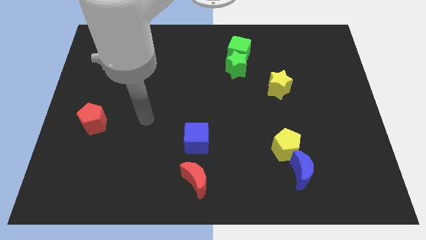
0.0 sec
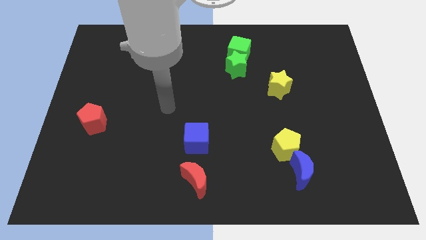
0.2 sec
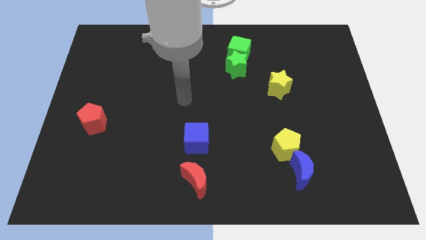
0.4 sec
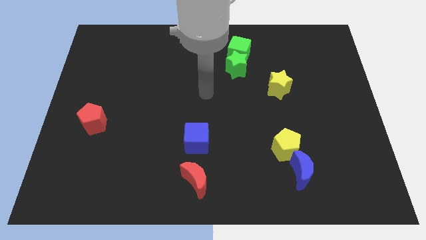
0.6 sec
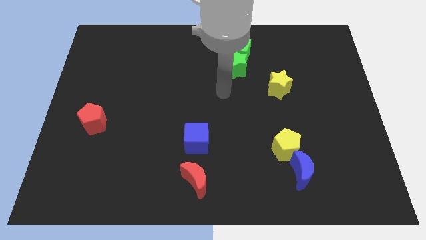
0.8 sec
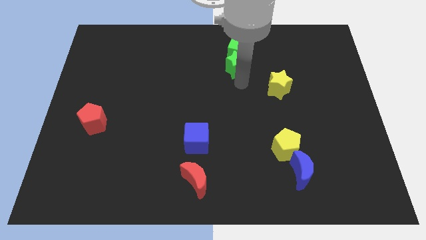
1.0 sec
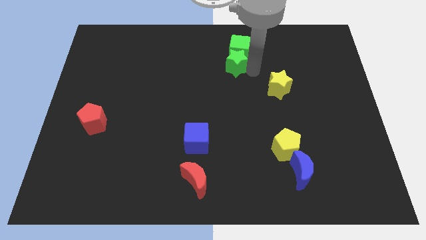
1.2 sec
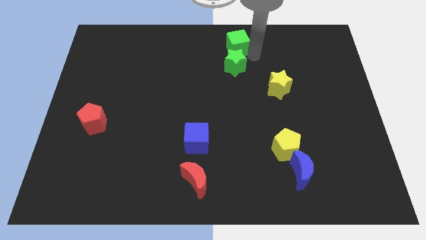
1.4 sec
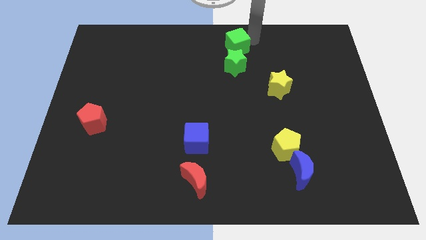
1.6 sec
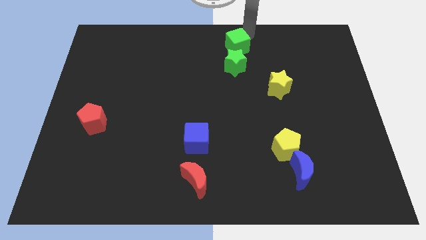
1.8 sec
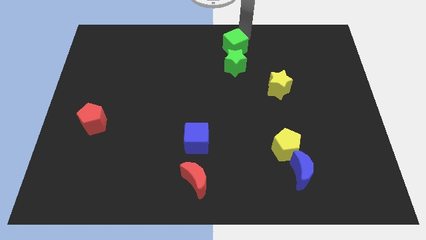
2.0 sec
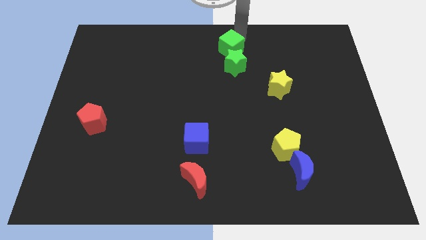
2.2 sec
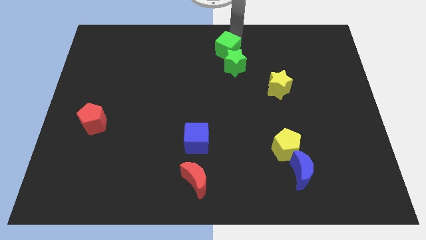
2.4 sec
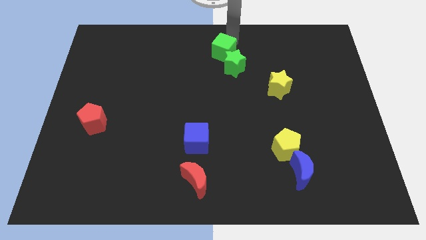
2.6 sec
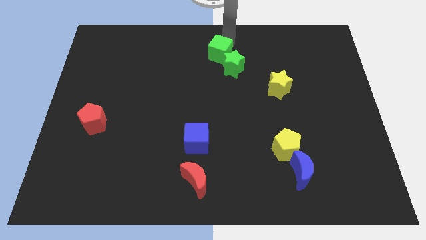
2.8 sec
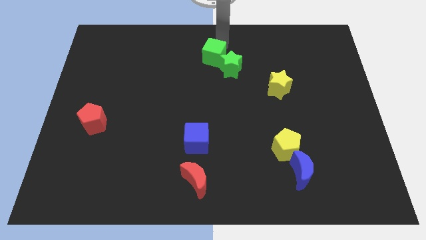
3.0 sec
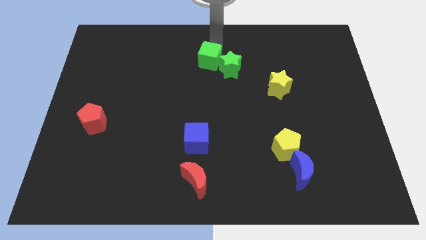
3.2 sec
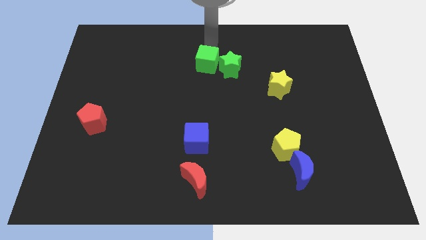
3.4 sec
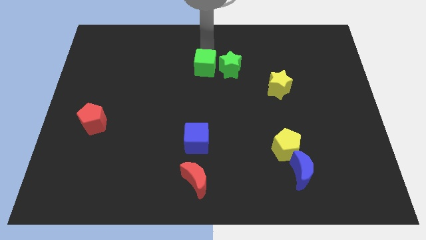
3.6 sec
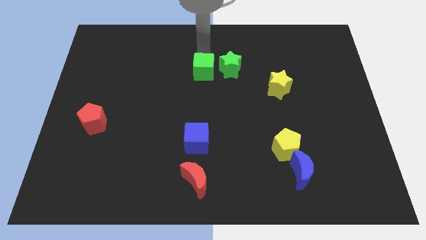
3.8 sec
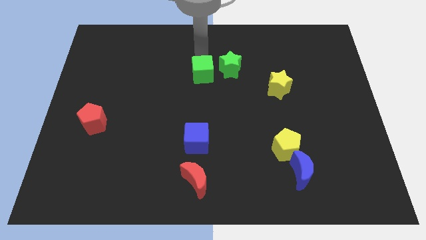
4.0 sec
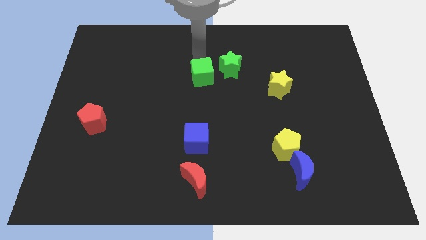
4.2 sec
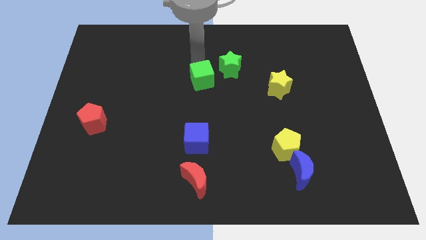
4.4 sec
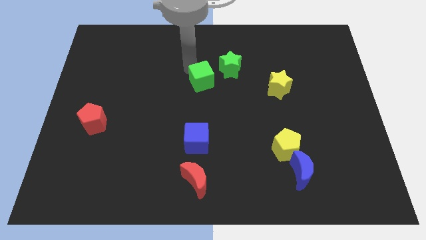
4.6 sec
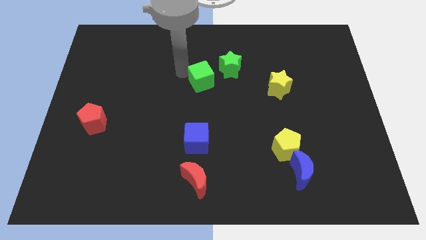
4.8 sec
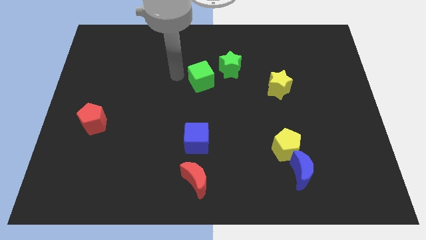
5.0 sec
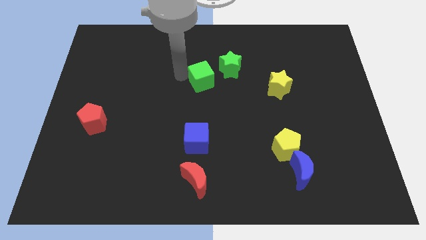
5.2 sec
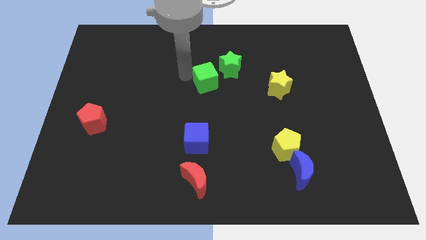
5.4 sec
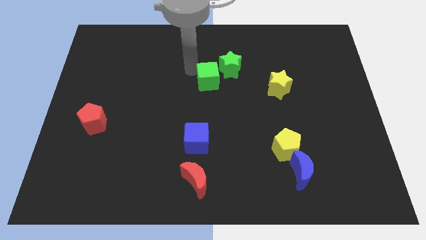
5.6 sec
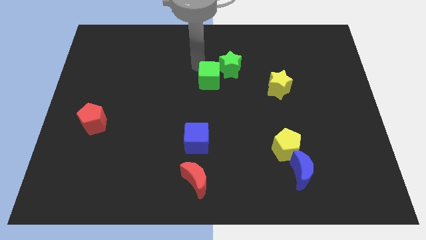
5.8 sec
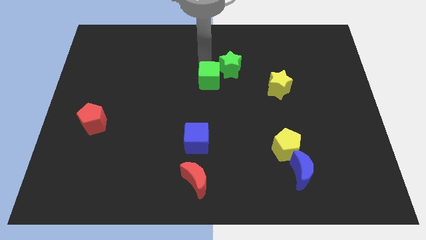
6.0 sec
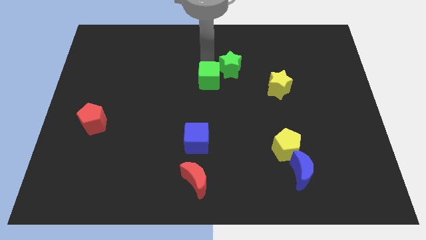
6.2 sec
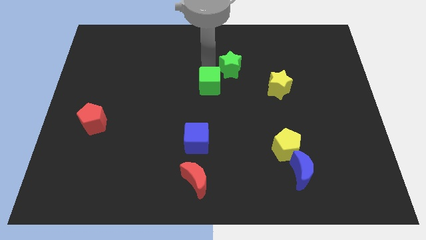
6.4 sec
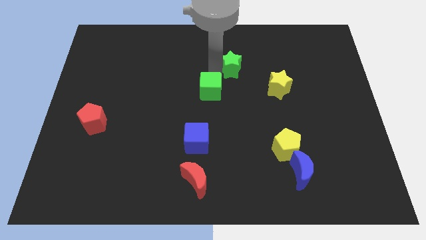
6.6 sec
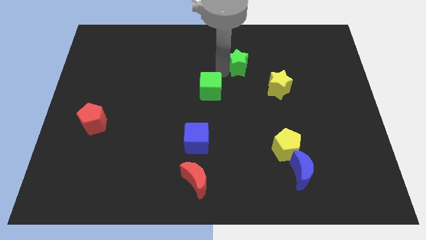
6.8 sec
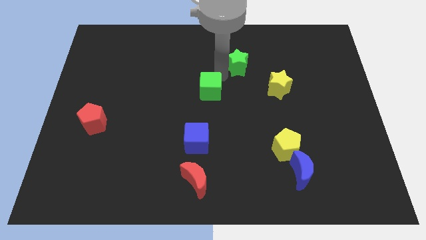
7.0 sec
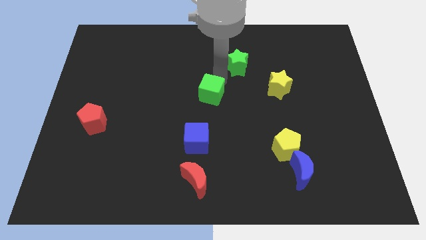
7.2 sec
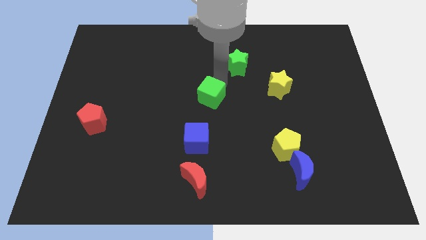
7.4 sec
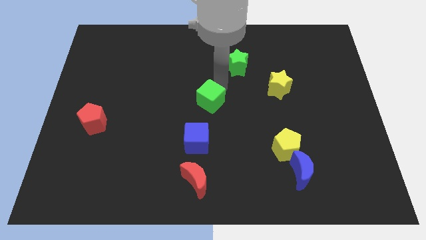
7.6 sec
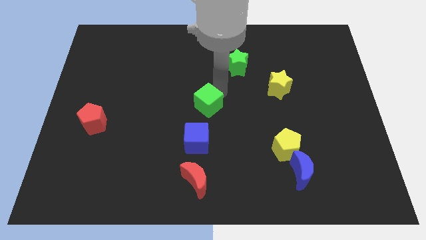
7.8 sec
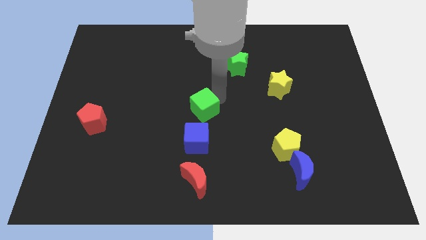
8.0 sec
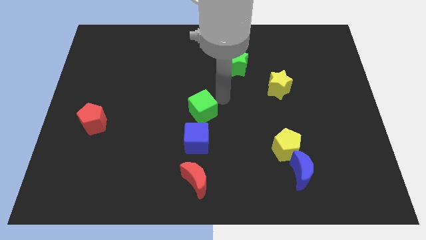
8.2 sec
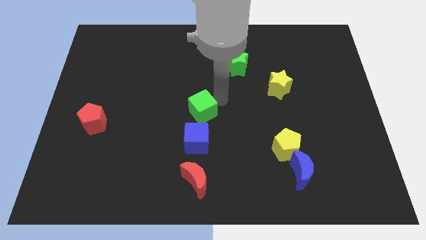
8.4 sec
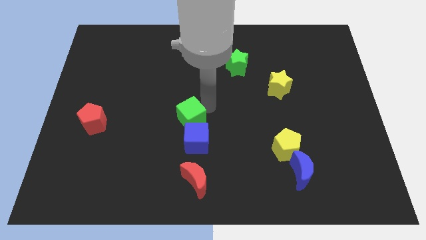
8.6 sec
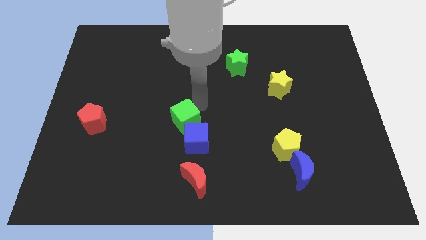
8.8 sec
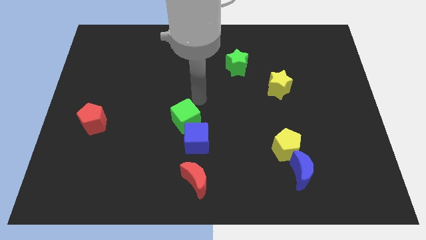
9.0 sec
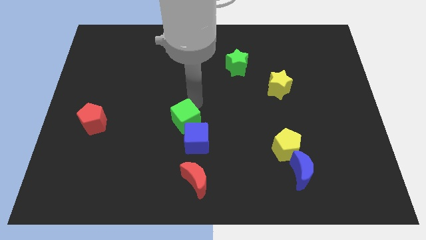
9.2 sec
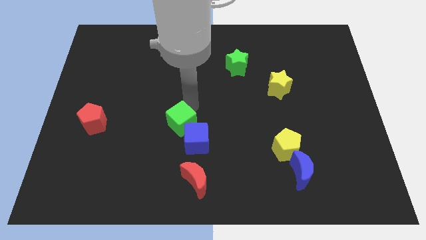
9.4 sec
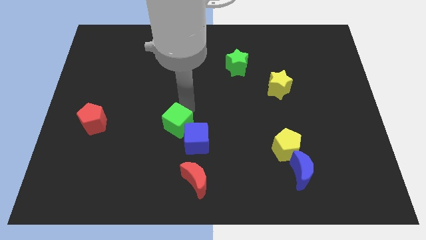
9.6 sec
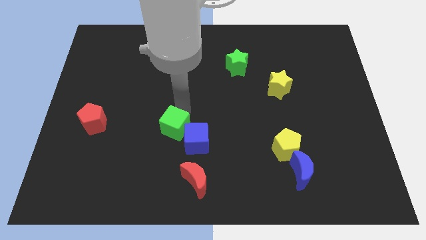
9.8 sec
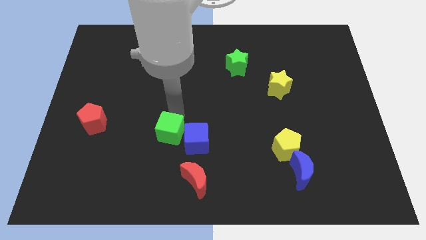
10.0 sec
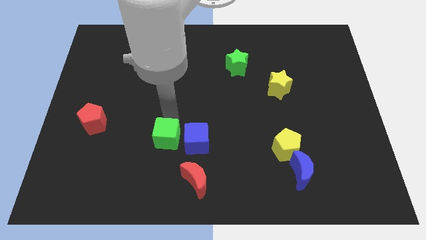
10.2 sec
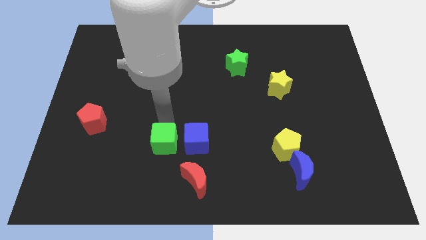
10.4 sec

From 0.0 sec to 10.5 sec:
push the green cube to the bottom left side of the blue cube

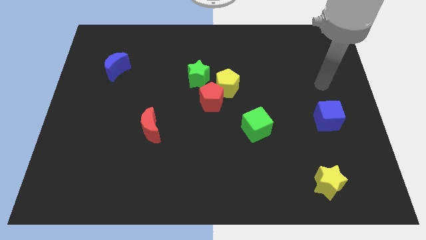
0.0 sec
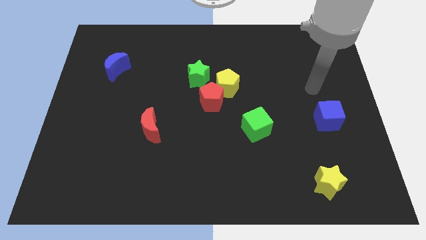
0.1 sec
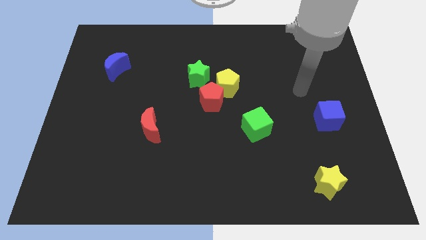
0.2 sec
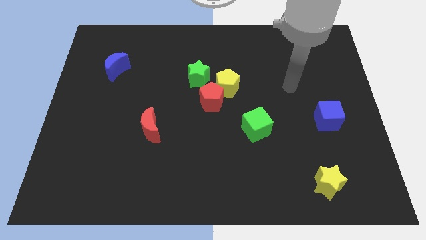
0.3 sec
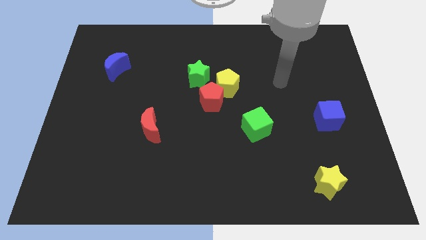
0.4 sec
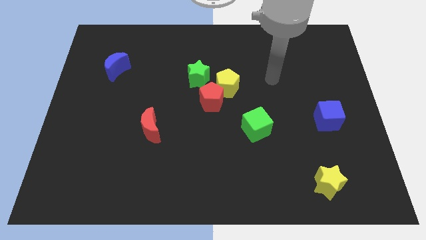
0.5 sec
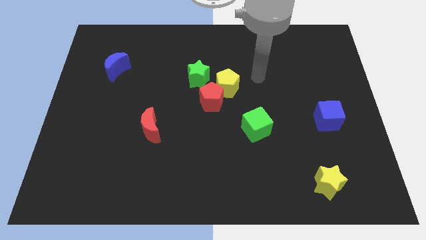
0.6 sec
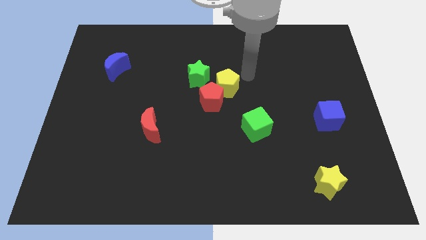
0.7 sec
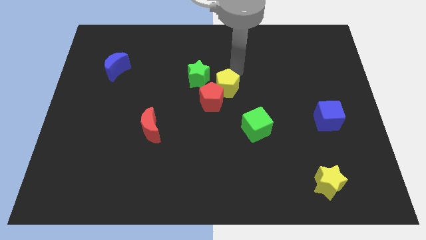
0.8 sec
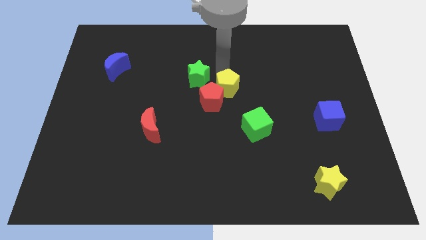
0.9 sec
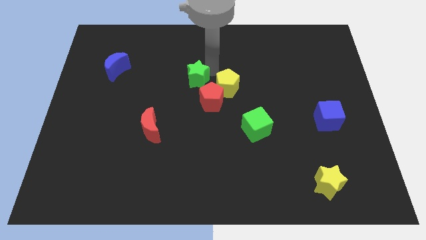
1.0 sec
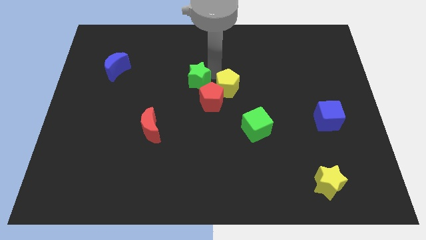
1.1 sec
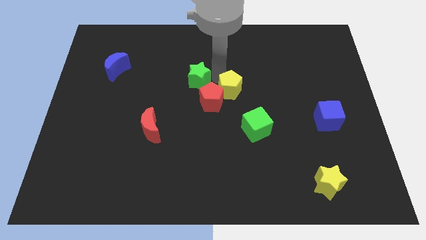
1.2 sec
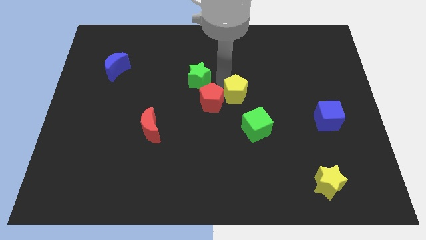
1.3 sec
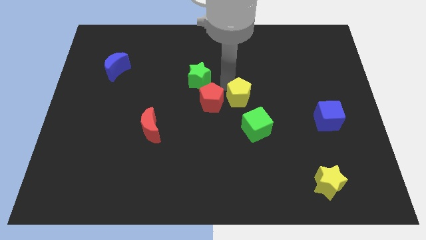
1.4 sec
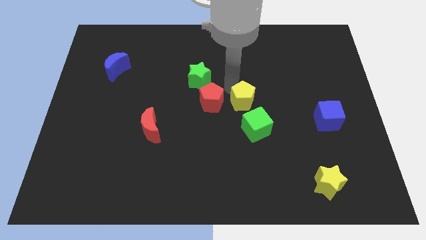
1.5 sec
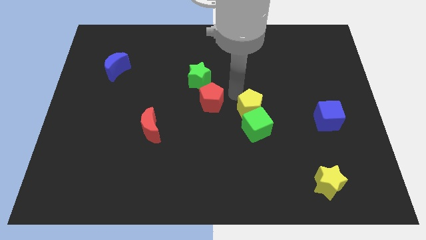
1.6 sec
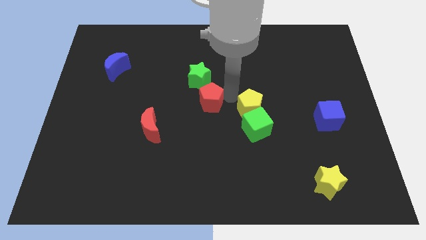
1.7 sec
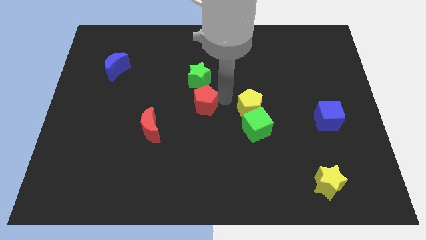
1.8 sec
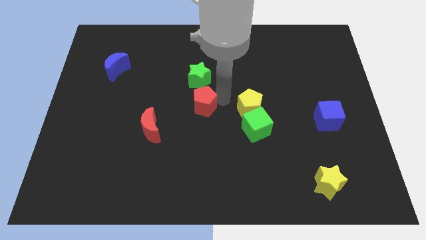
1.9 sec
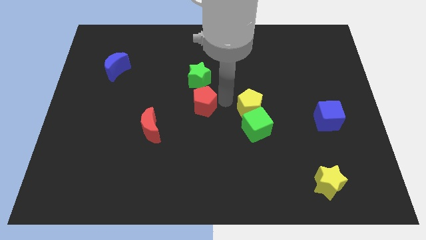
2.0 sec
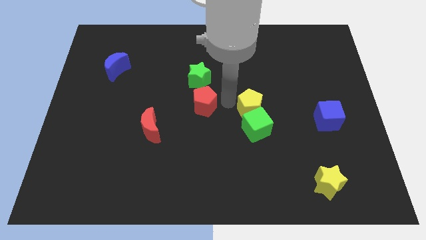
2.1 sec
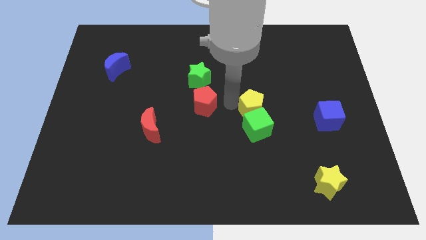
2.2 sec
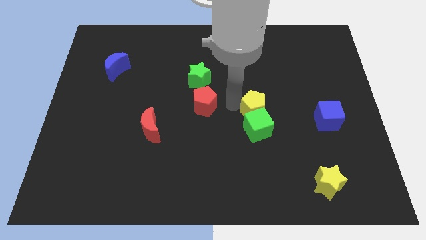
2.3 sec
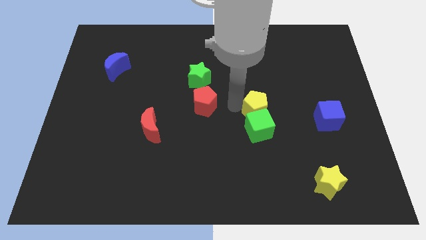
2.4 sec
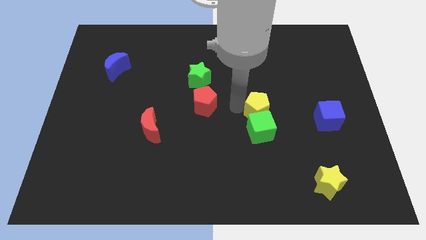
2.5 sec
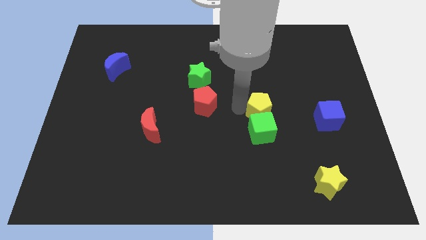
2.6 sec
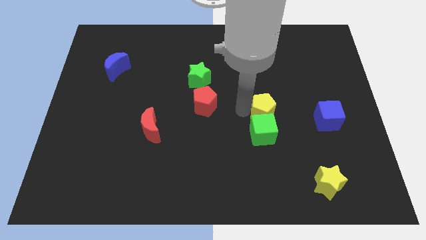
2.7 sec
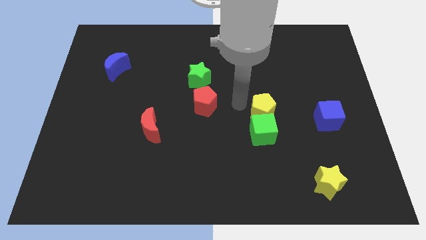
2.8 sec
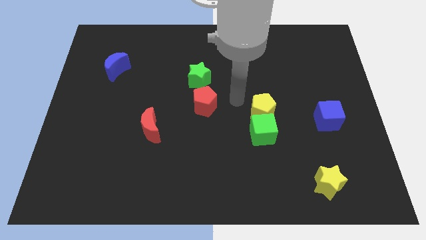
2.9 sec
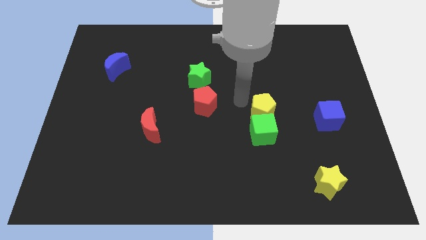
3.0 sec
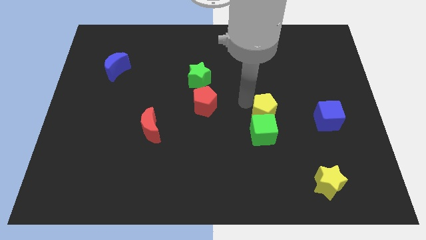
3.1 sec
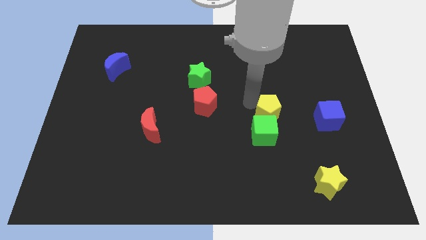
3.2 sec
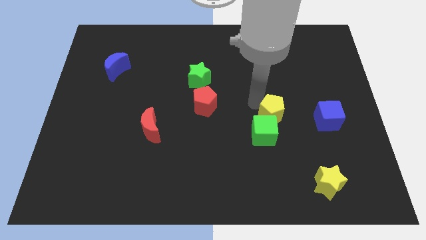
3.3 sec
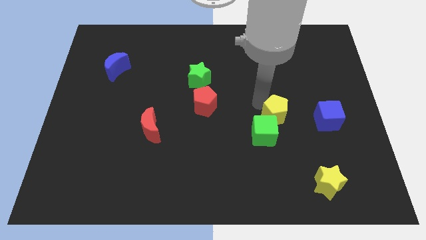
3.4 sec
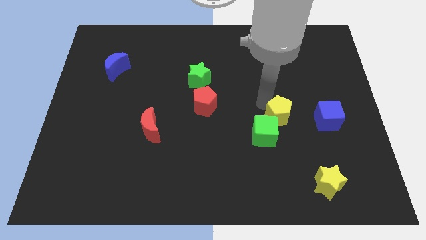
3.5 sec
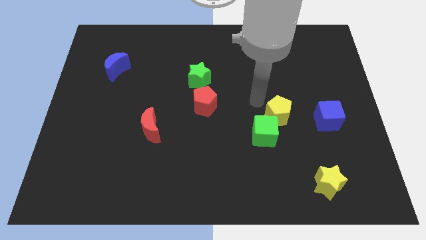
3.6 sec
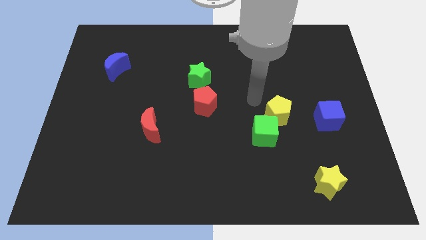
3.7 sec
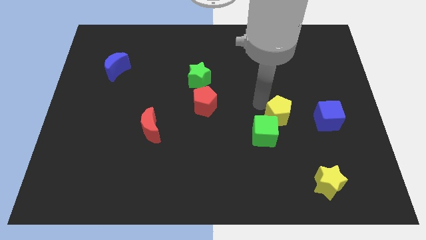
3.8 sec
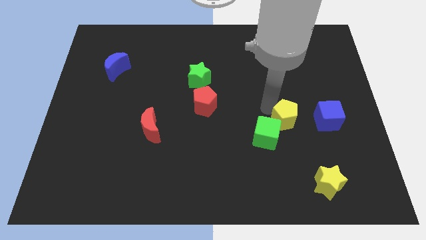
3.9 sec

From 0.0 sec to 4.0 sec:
move the yellow pentagon right of the green cube
